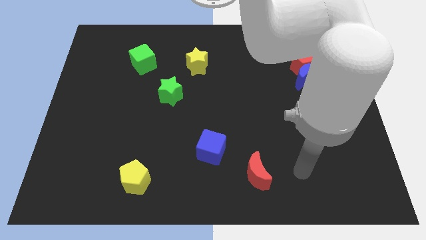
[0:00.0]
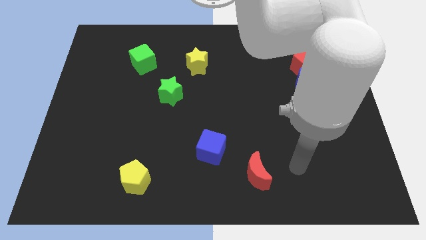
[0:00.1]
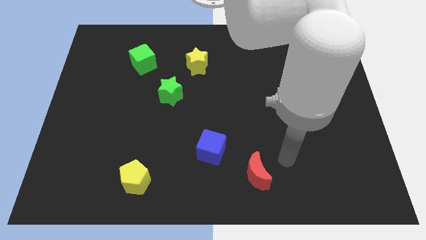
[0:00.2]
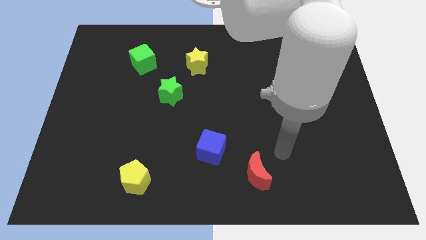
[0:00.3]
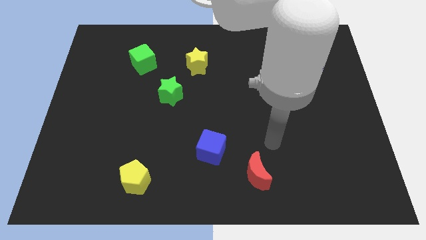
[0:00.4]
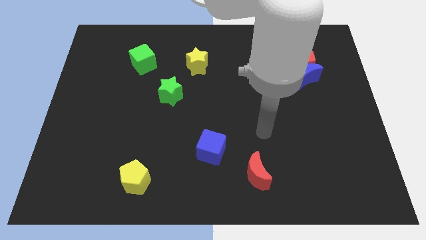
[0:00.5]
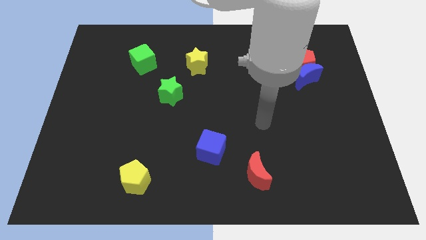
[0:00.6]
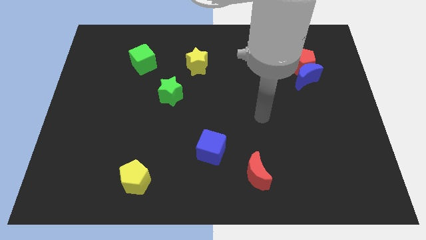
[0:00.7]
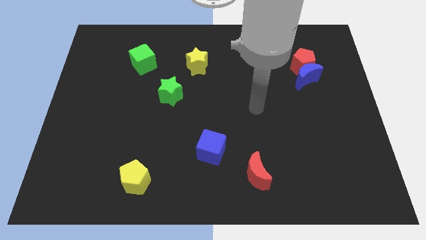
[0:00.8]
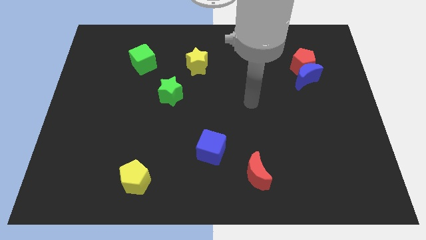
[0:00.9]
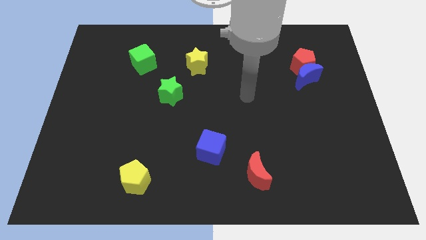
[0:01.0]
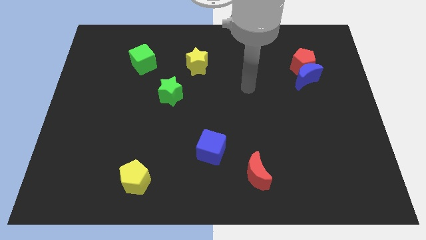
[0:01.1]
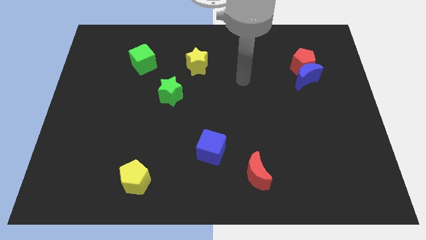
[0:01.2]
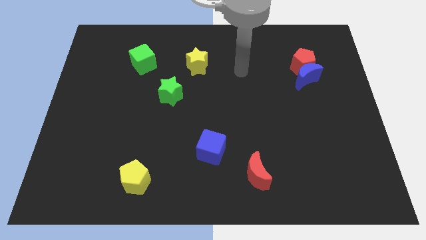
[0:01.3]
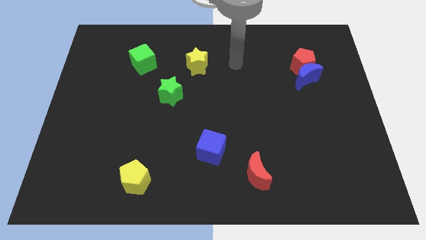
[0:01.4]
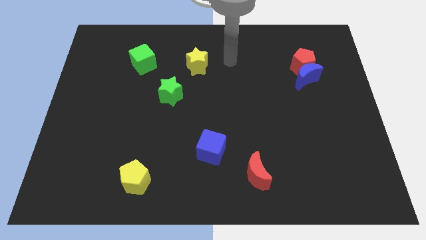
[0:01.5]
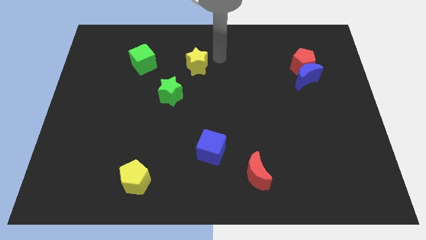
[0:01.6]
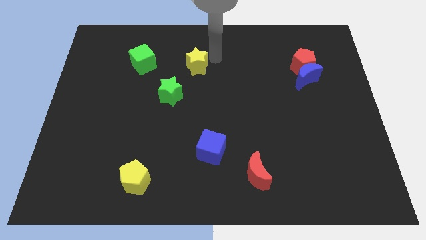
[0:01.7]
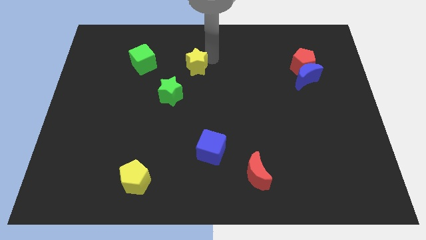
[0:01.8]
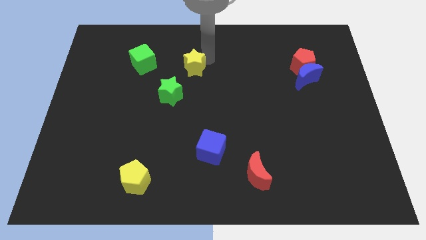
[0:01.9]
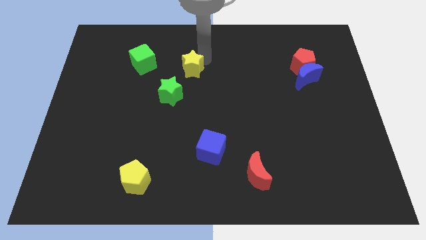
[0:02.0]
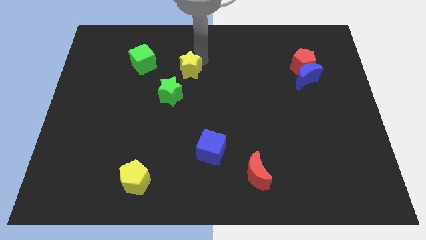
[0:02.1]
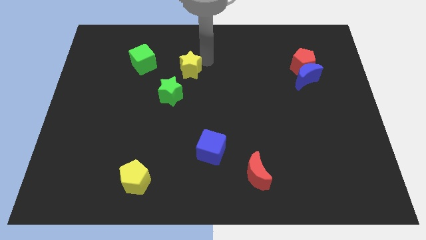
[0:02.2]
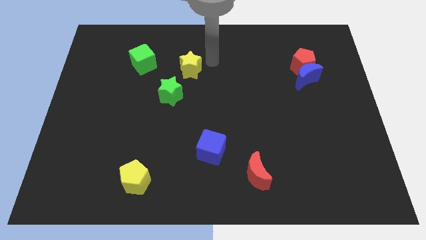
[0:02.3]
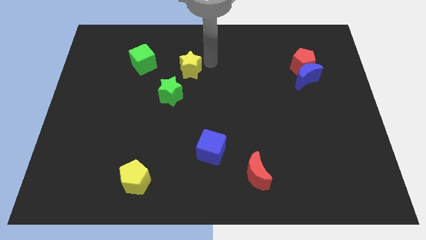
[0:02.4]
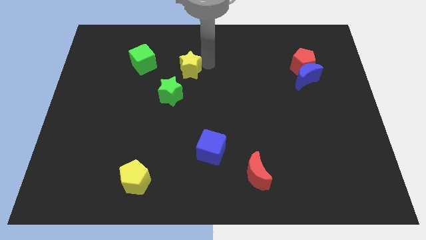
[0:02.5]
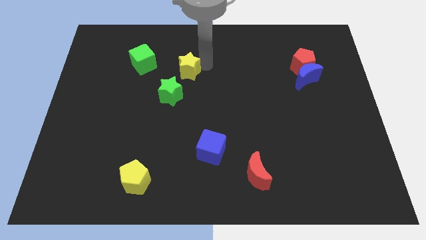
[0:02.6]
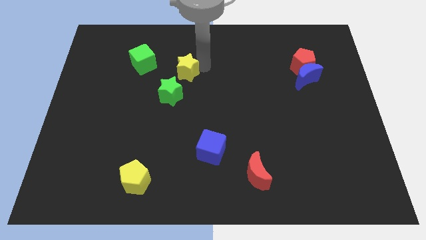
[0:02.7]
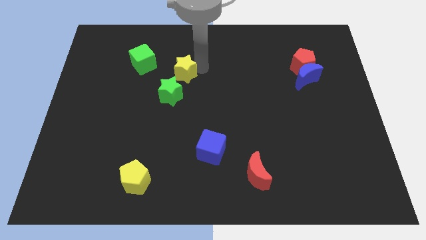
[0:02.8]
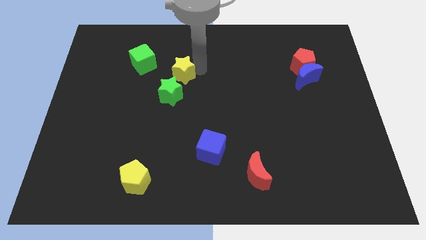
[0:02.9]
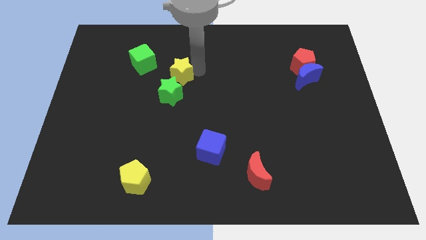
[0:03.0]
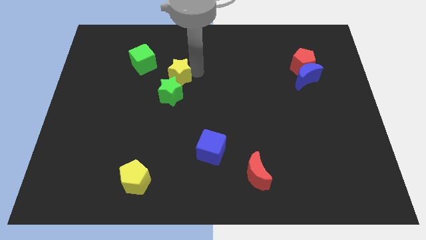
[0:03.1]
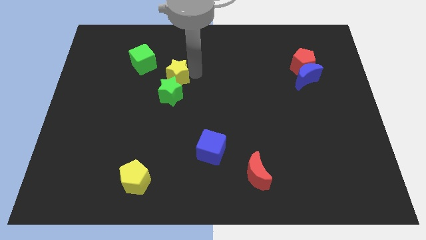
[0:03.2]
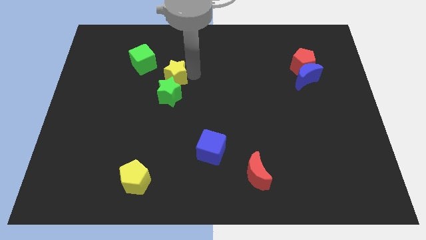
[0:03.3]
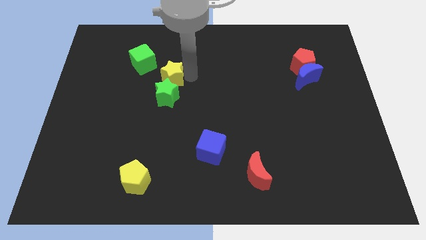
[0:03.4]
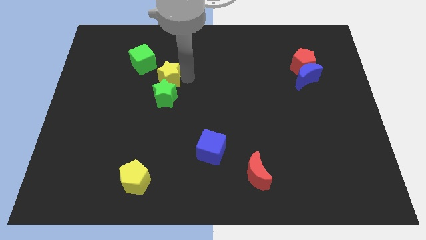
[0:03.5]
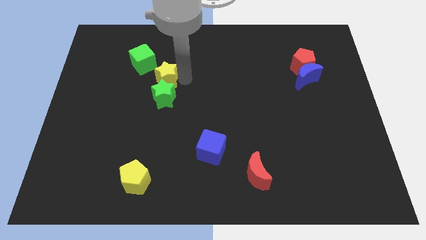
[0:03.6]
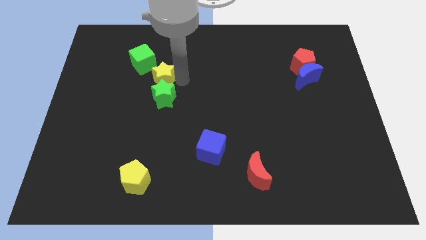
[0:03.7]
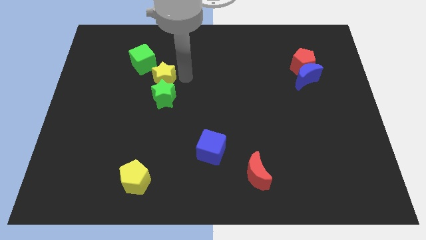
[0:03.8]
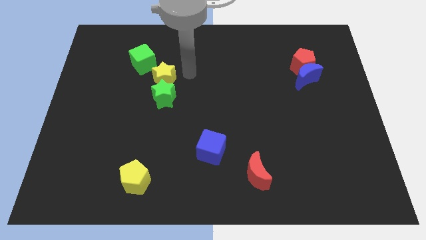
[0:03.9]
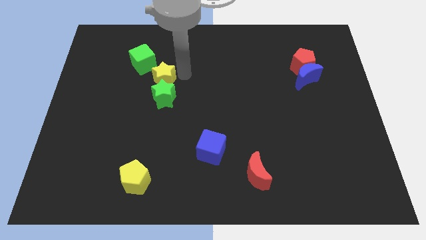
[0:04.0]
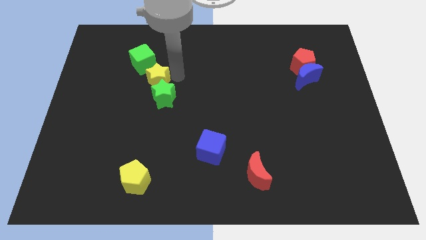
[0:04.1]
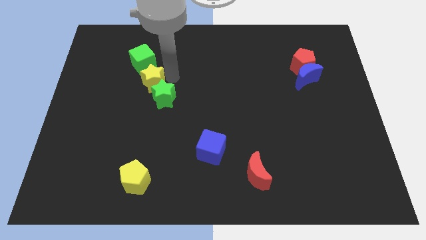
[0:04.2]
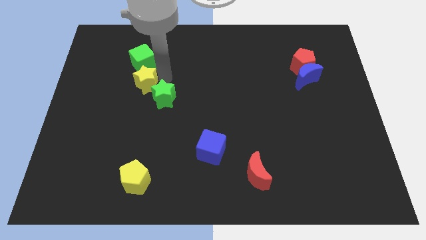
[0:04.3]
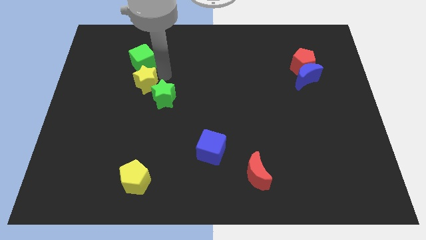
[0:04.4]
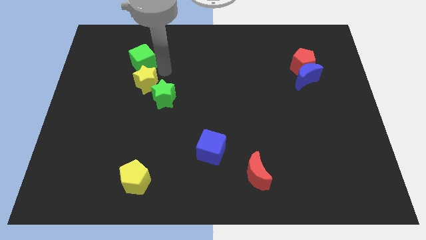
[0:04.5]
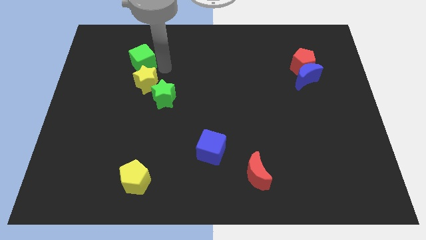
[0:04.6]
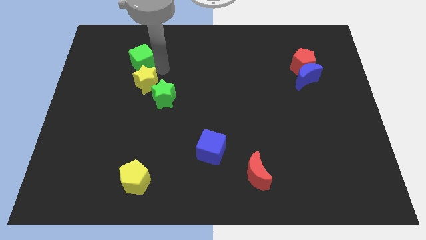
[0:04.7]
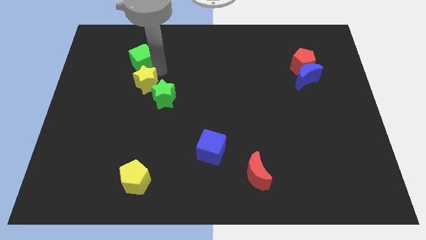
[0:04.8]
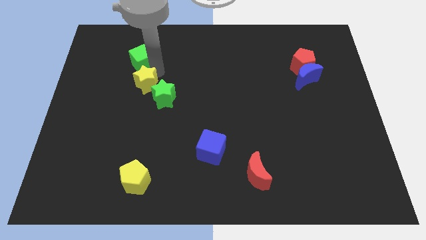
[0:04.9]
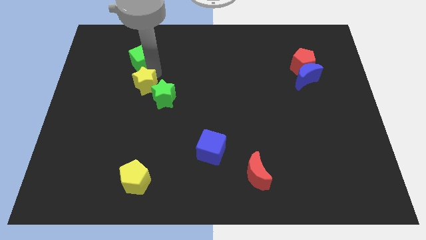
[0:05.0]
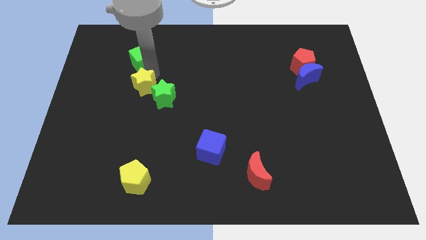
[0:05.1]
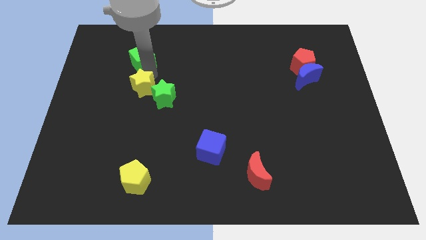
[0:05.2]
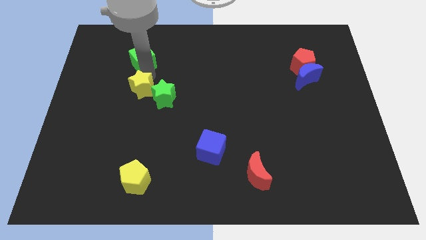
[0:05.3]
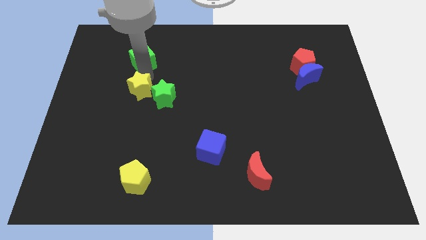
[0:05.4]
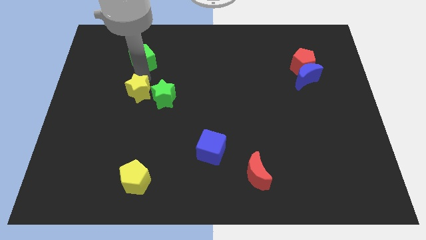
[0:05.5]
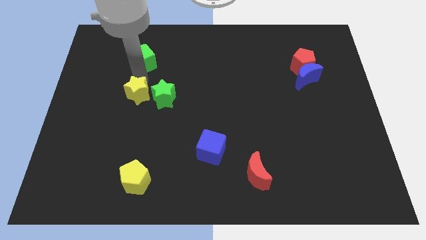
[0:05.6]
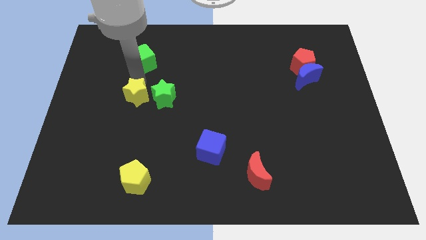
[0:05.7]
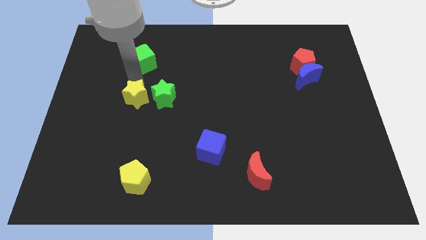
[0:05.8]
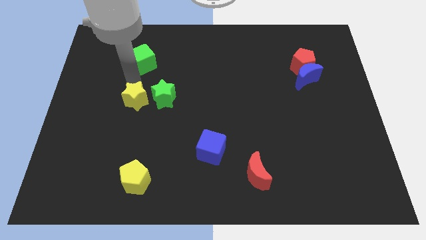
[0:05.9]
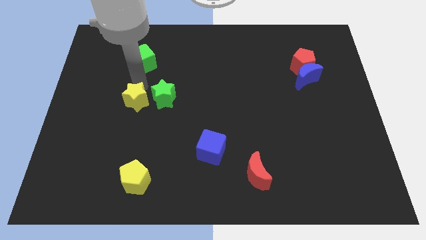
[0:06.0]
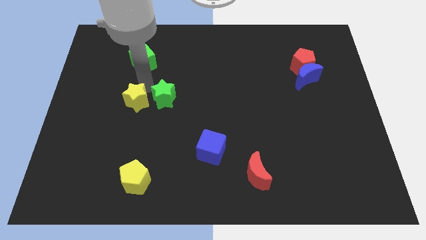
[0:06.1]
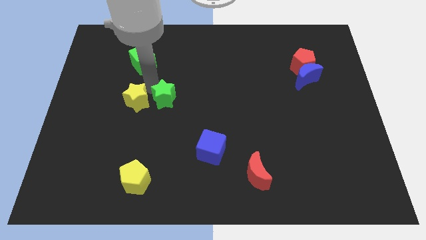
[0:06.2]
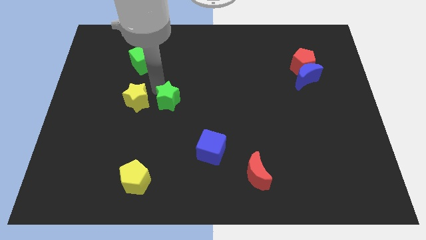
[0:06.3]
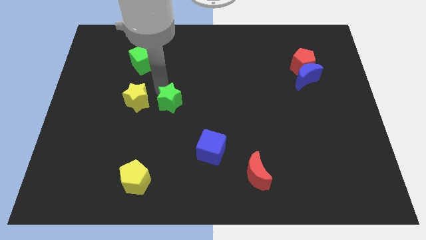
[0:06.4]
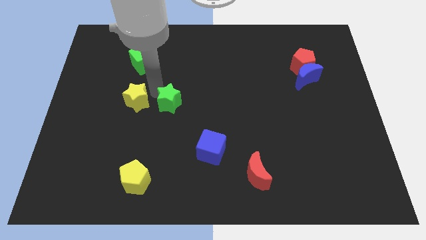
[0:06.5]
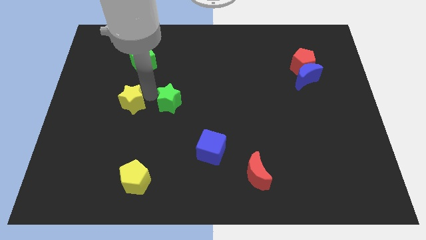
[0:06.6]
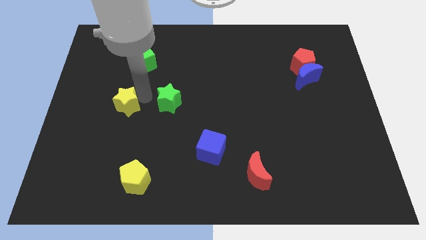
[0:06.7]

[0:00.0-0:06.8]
slide the yellow star diagonally down and to the left

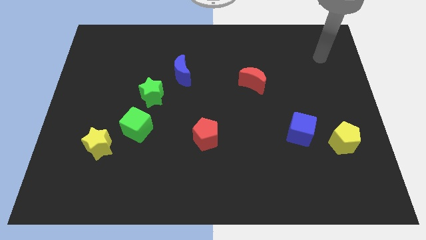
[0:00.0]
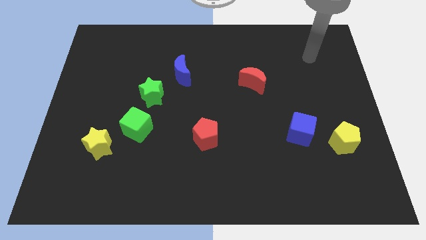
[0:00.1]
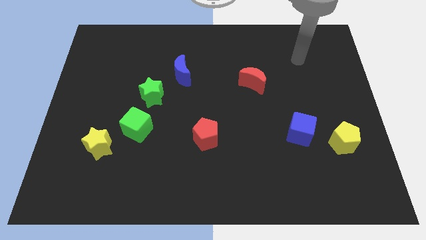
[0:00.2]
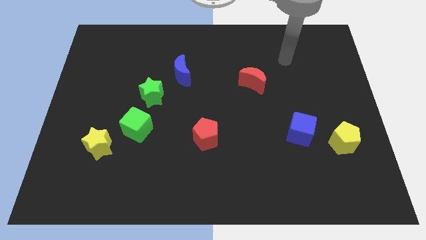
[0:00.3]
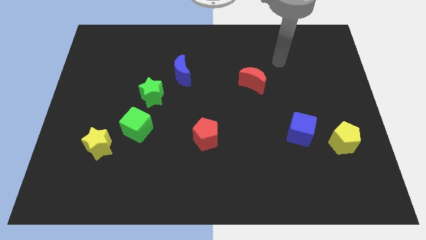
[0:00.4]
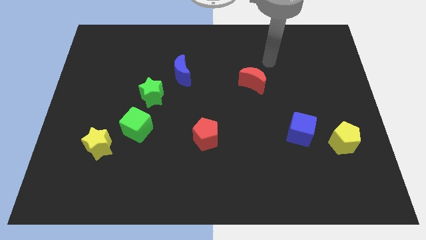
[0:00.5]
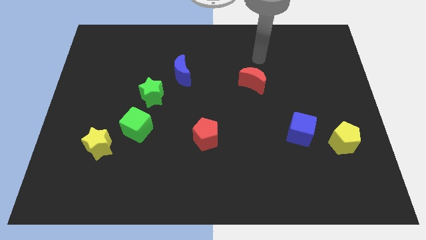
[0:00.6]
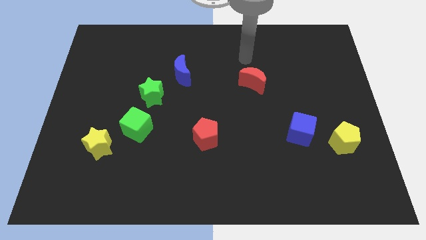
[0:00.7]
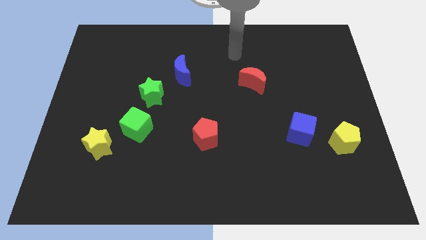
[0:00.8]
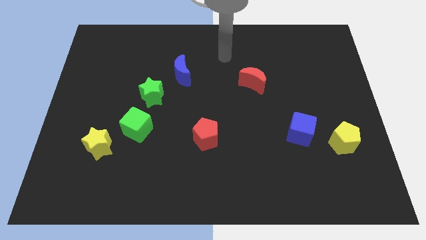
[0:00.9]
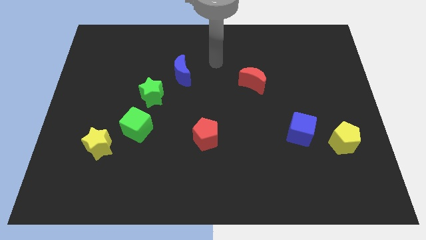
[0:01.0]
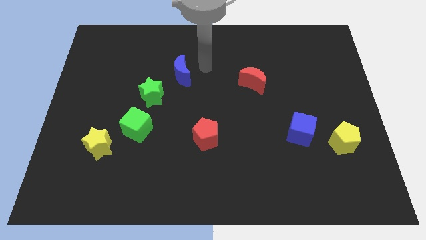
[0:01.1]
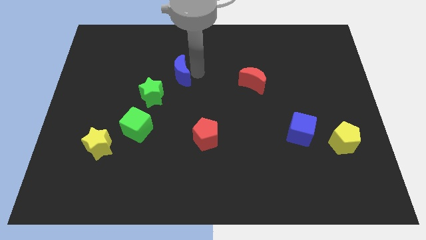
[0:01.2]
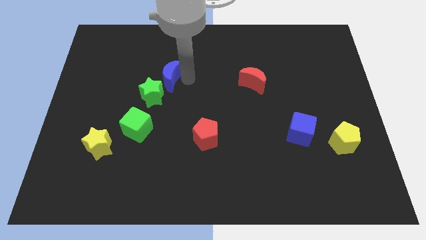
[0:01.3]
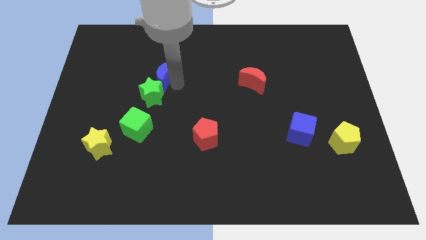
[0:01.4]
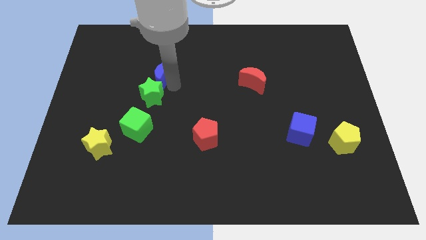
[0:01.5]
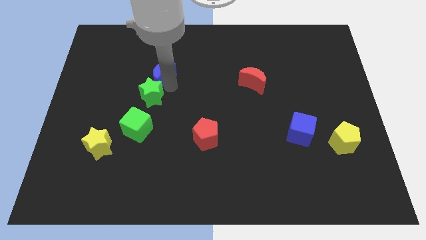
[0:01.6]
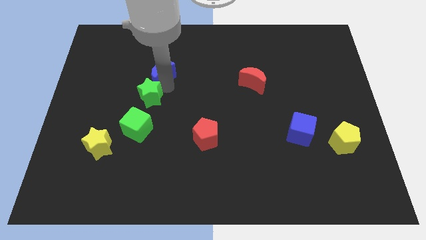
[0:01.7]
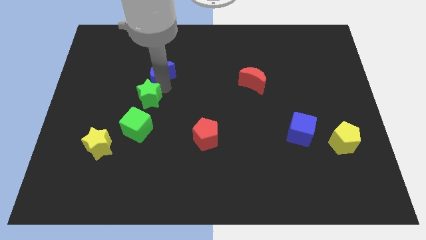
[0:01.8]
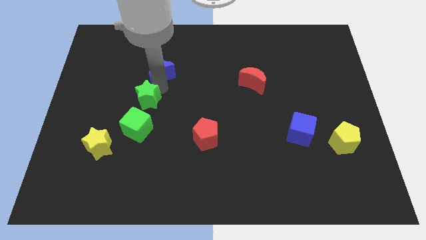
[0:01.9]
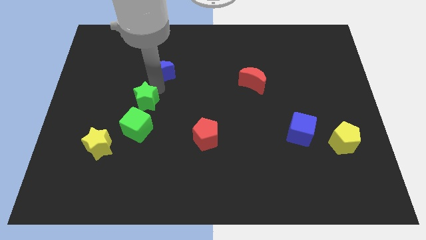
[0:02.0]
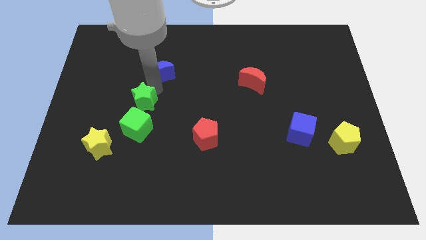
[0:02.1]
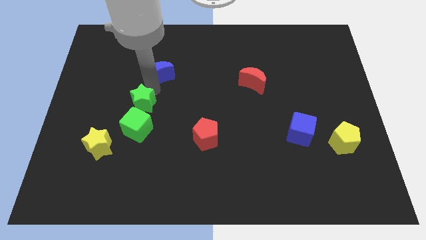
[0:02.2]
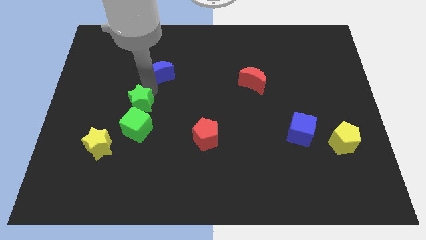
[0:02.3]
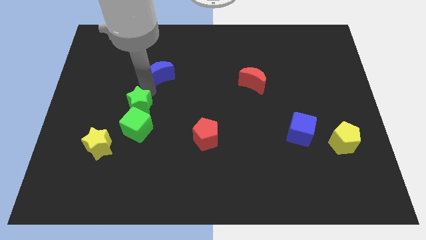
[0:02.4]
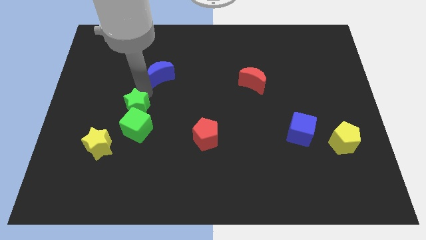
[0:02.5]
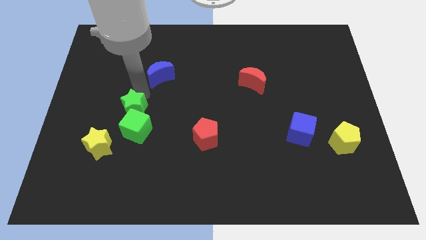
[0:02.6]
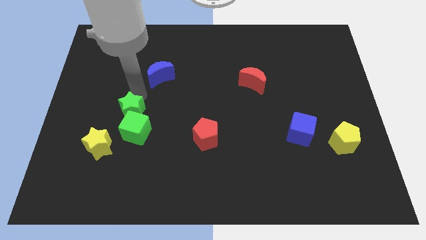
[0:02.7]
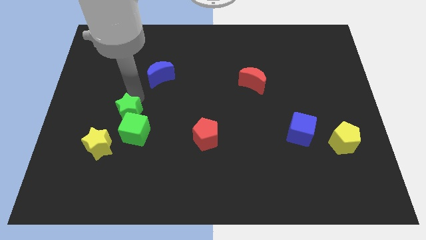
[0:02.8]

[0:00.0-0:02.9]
slightly slide the green star down and left diagonally
